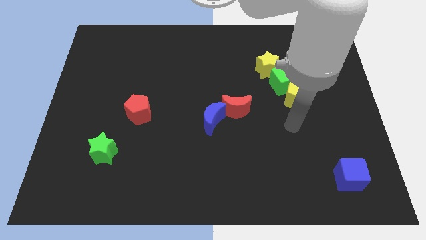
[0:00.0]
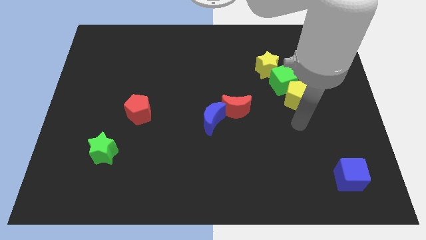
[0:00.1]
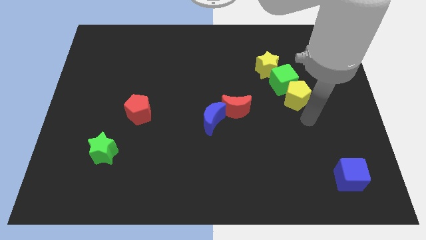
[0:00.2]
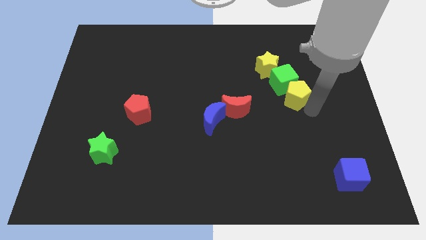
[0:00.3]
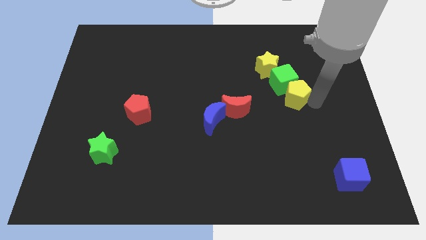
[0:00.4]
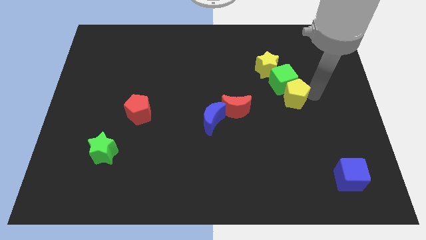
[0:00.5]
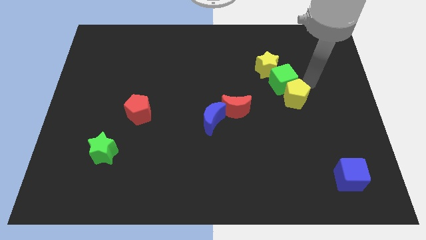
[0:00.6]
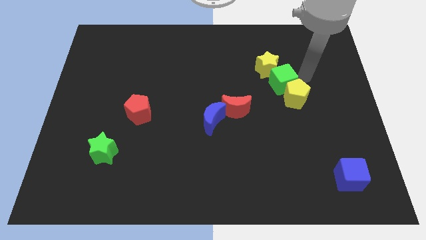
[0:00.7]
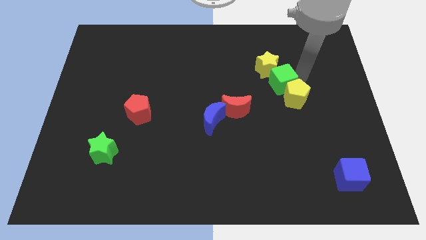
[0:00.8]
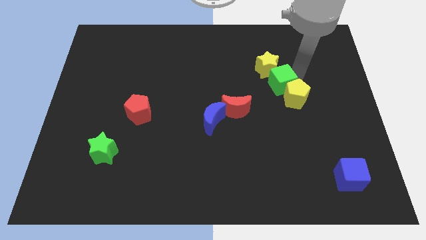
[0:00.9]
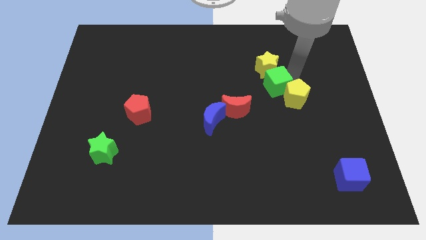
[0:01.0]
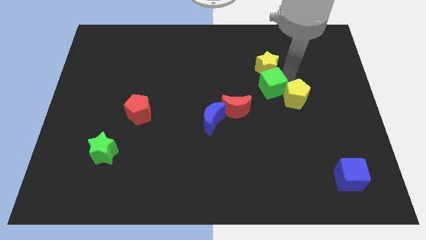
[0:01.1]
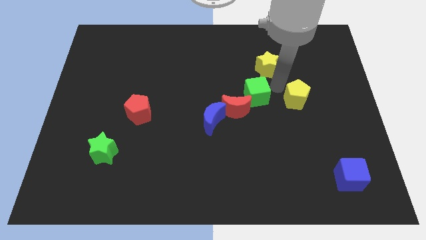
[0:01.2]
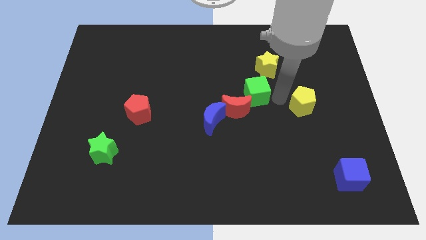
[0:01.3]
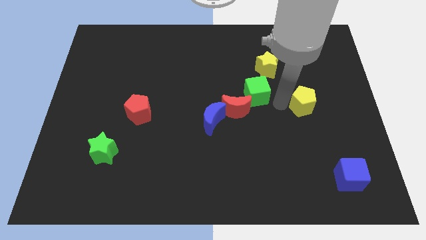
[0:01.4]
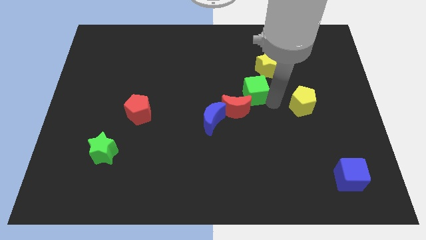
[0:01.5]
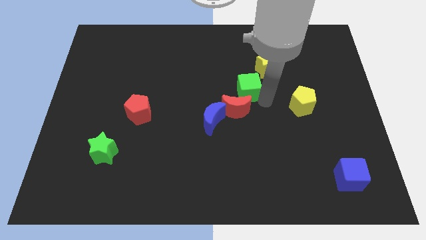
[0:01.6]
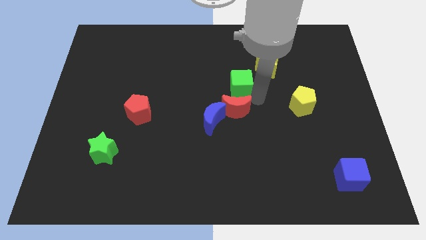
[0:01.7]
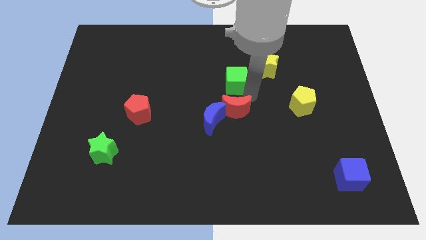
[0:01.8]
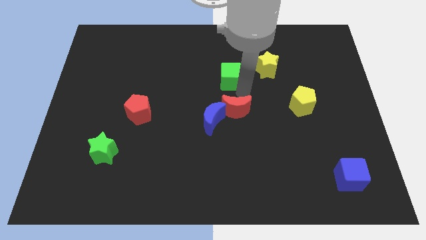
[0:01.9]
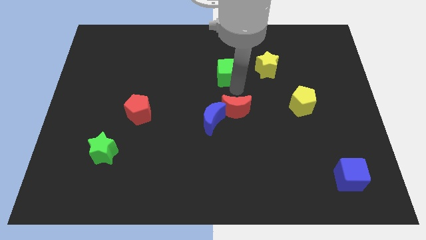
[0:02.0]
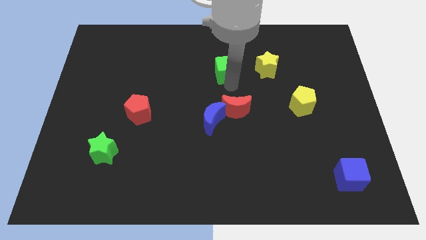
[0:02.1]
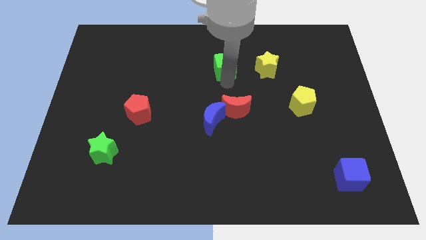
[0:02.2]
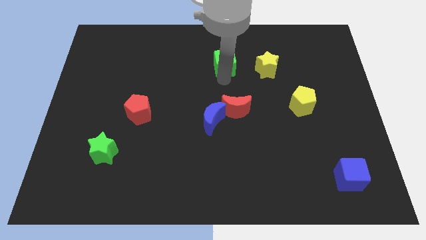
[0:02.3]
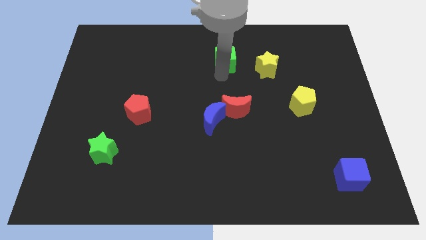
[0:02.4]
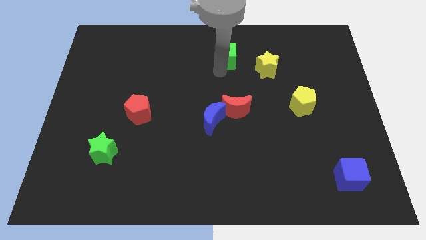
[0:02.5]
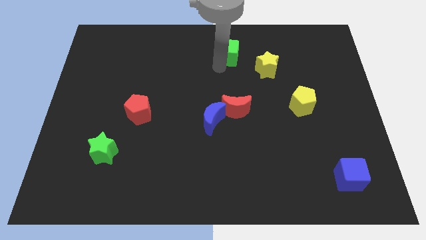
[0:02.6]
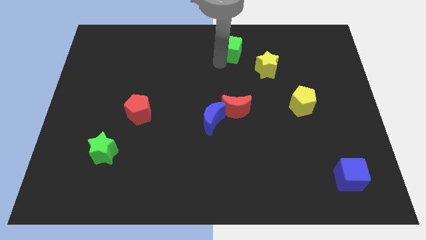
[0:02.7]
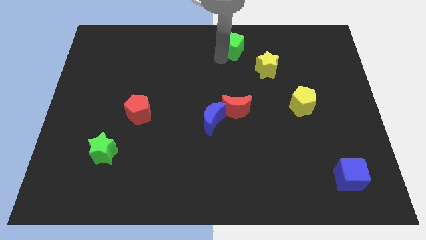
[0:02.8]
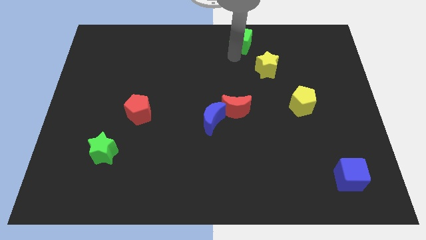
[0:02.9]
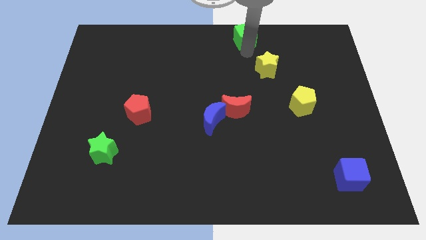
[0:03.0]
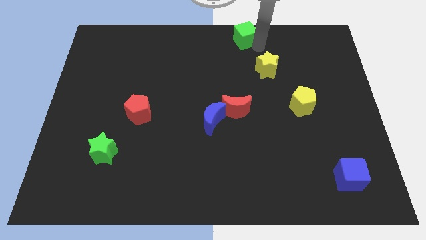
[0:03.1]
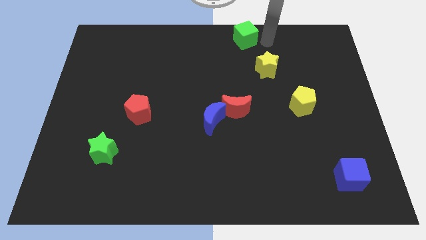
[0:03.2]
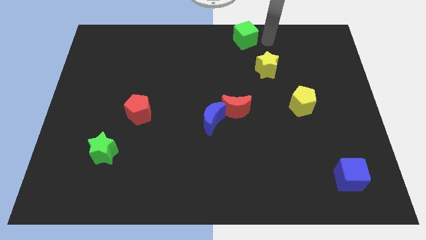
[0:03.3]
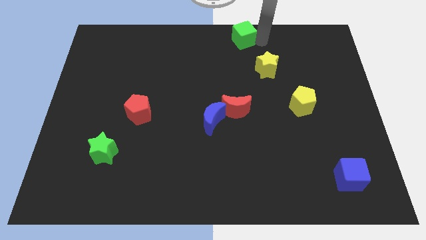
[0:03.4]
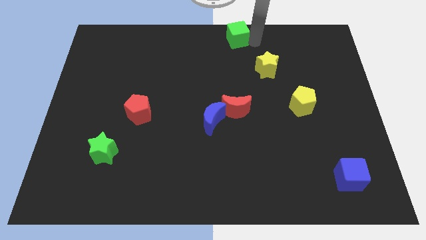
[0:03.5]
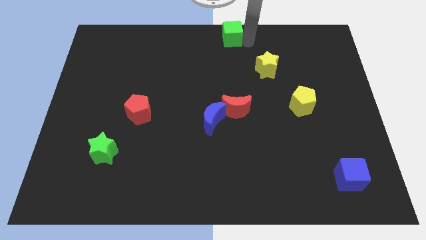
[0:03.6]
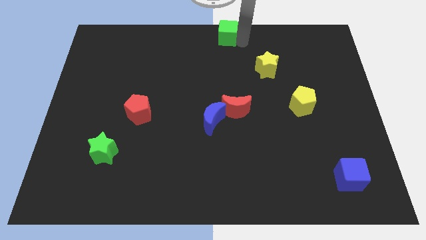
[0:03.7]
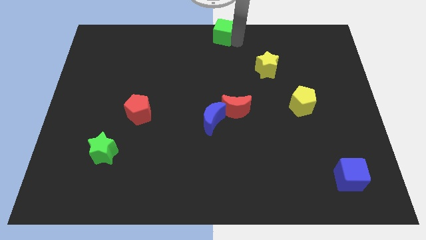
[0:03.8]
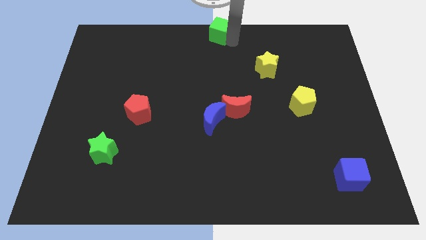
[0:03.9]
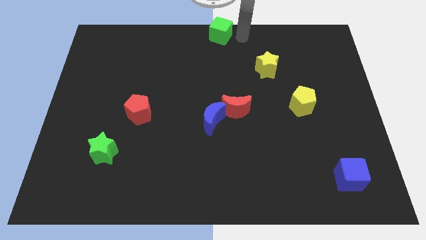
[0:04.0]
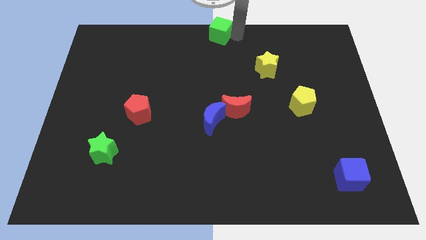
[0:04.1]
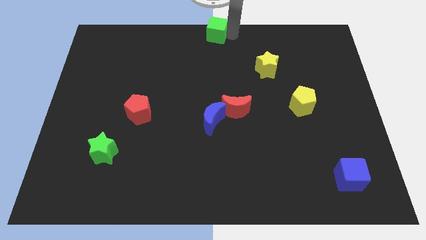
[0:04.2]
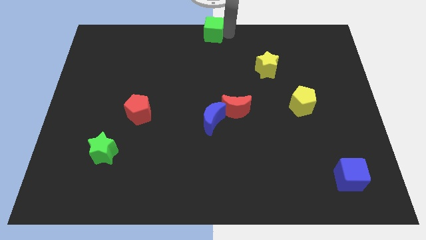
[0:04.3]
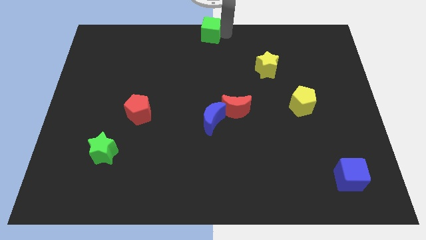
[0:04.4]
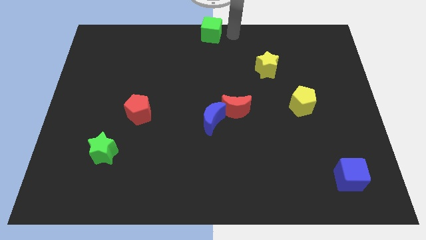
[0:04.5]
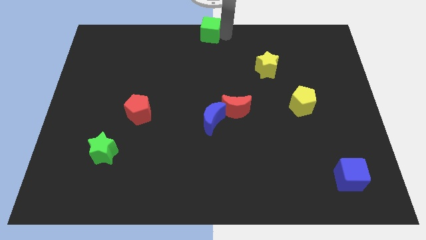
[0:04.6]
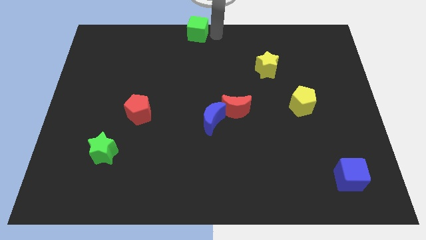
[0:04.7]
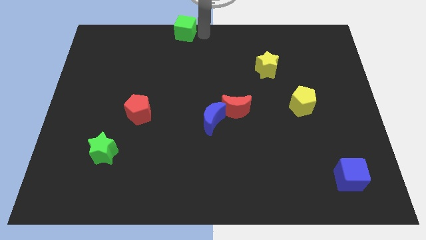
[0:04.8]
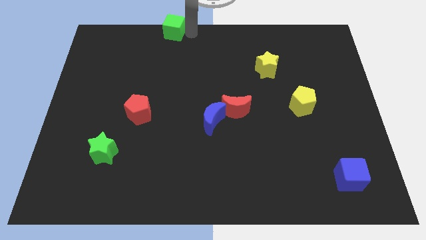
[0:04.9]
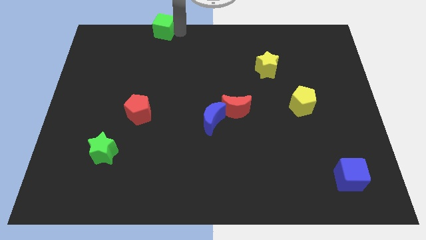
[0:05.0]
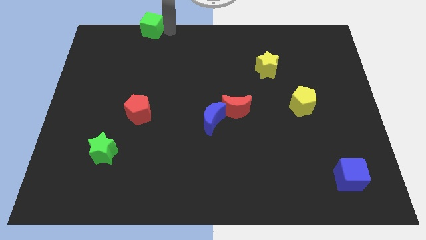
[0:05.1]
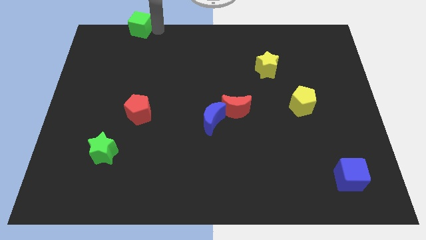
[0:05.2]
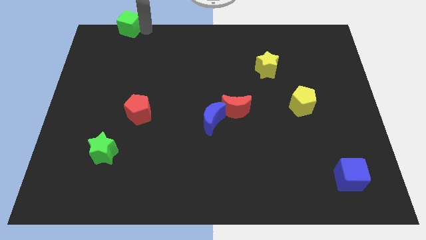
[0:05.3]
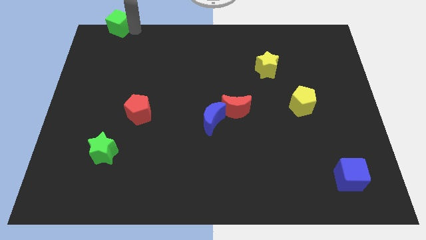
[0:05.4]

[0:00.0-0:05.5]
put the green cube to the upper left corner

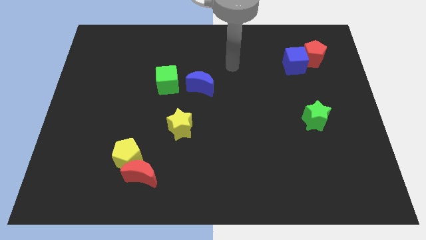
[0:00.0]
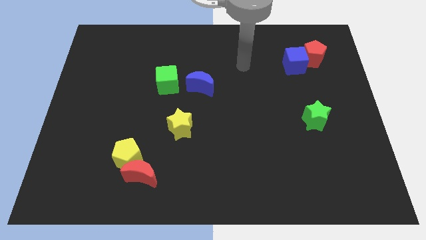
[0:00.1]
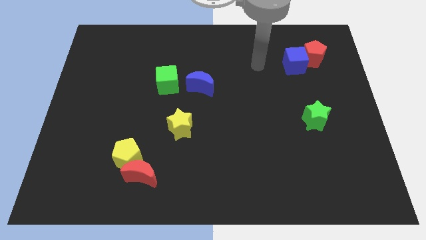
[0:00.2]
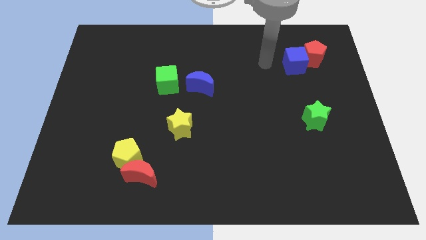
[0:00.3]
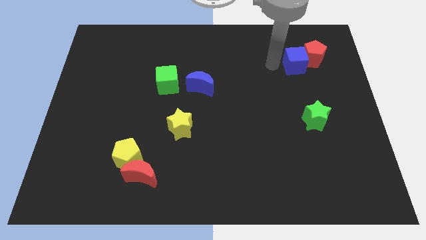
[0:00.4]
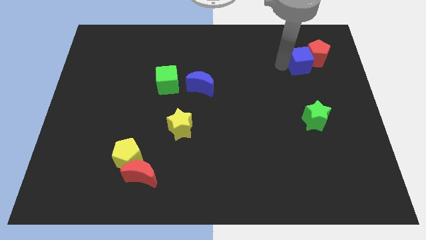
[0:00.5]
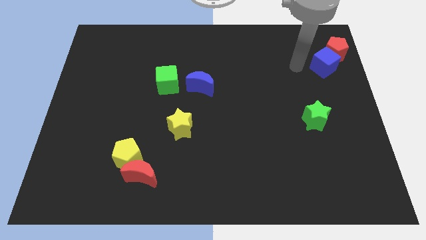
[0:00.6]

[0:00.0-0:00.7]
push the red pentagon to the top right corner

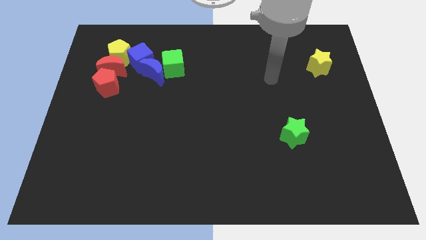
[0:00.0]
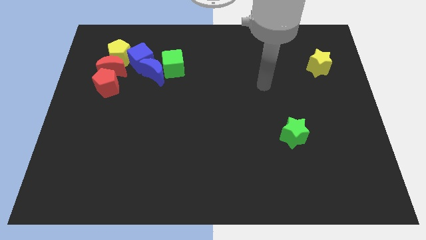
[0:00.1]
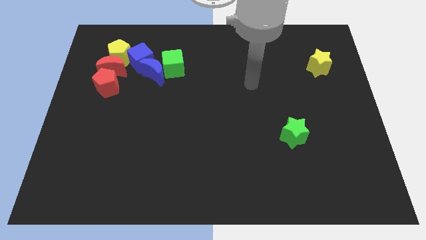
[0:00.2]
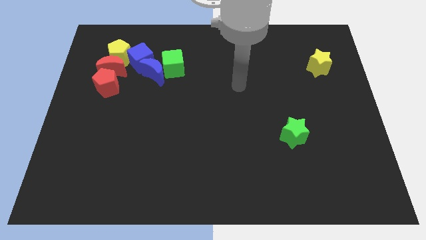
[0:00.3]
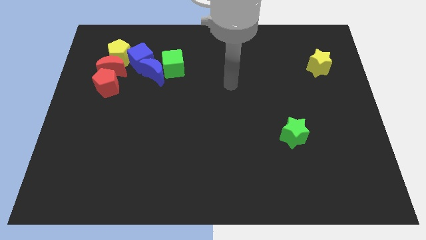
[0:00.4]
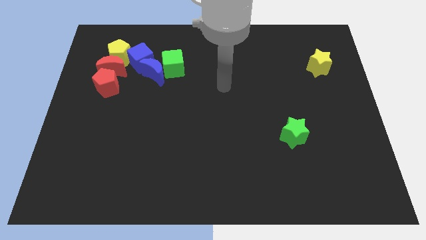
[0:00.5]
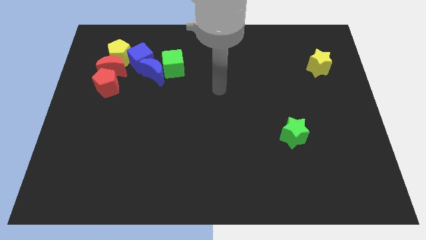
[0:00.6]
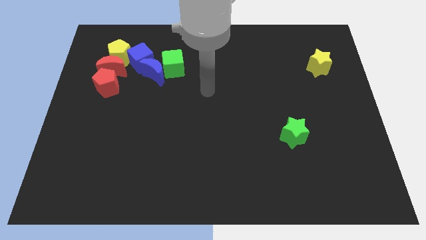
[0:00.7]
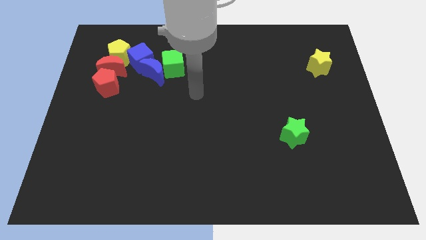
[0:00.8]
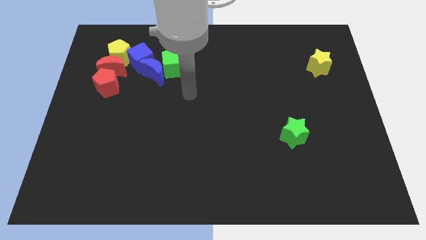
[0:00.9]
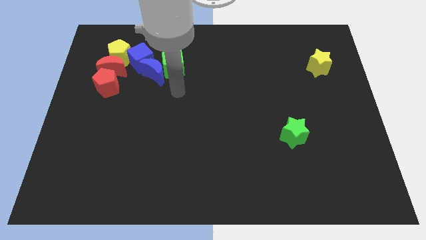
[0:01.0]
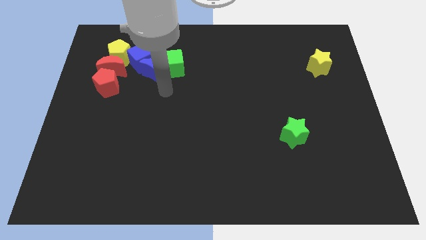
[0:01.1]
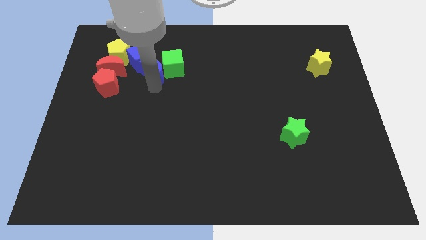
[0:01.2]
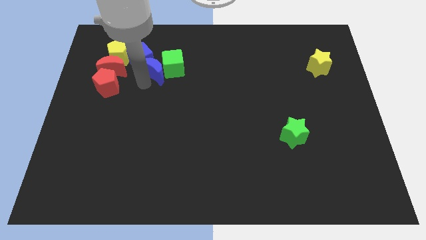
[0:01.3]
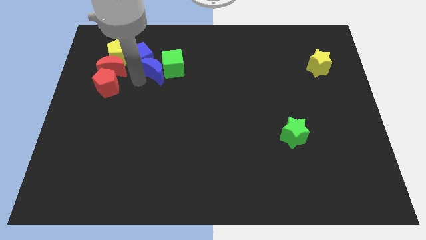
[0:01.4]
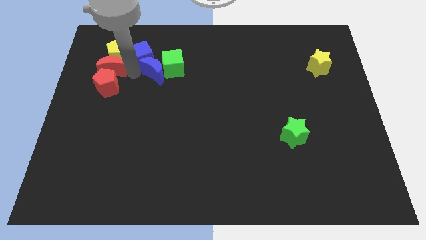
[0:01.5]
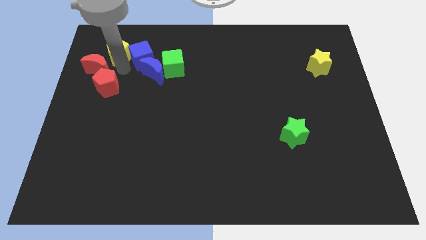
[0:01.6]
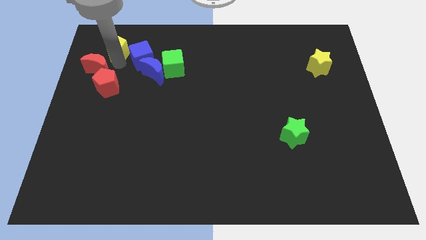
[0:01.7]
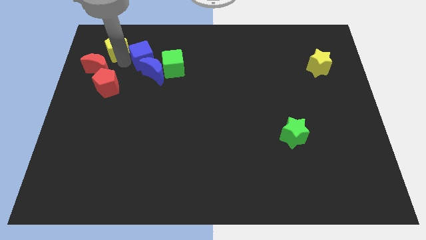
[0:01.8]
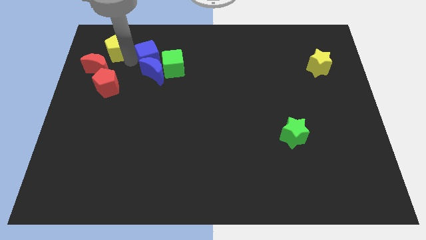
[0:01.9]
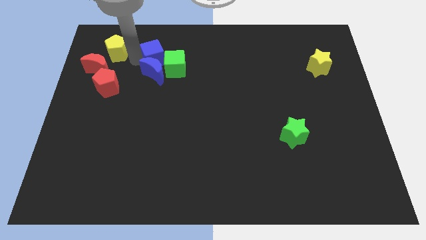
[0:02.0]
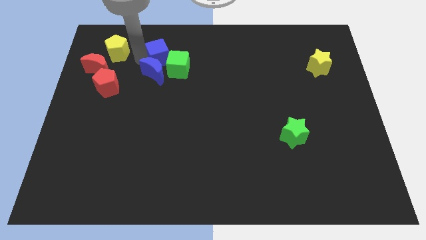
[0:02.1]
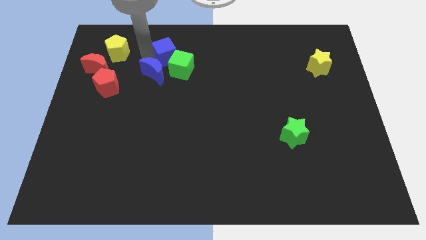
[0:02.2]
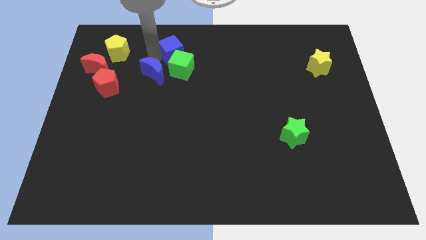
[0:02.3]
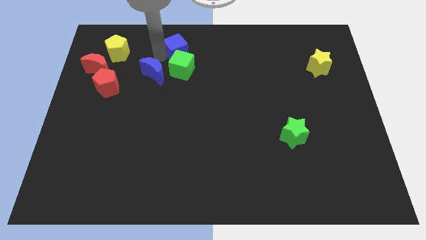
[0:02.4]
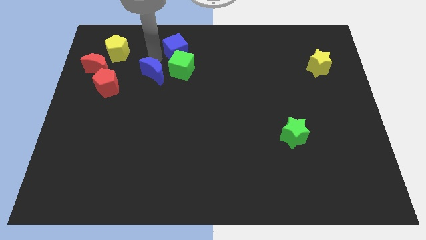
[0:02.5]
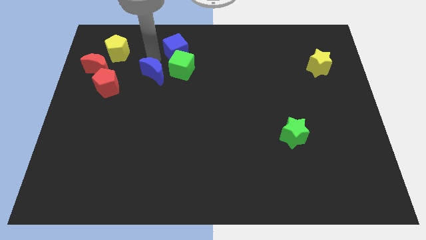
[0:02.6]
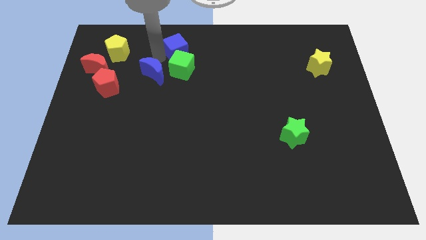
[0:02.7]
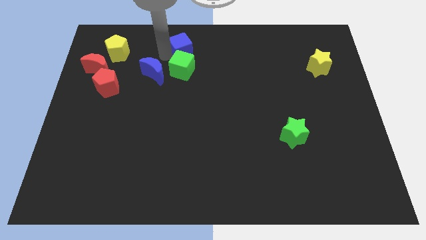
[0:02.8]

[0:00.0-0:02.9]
push the blue cube to the top
